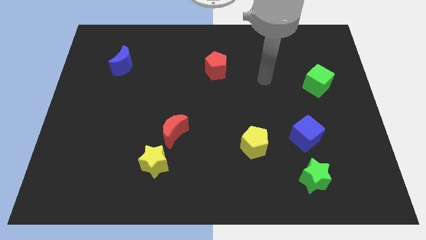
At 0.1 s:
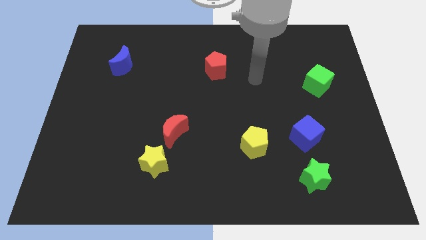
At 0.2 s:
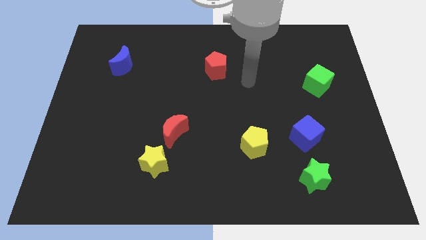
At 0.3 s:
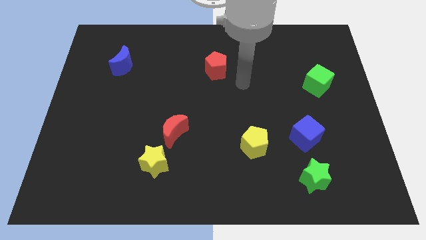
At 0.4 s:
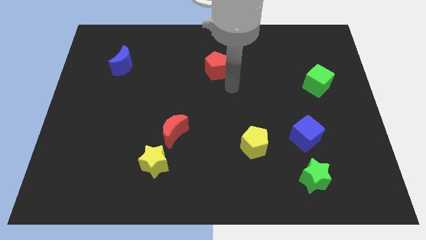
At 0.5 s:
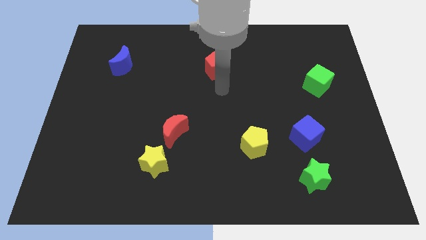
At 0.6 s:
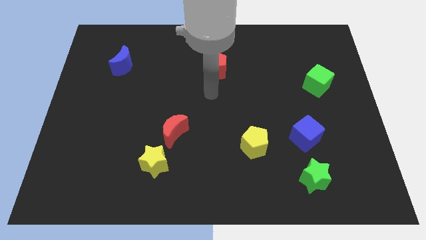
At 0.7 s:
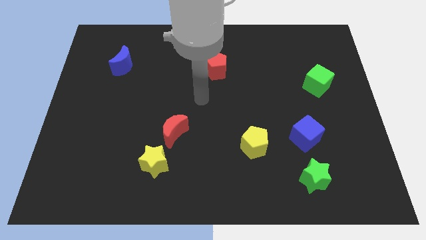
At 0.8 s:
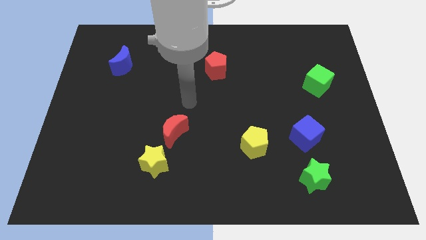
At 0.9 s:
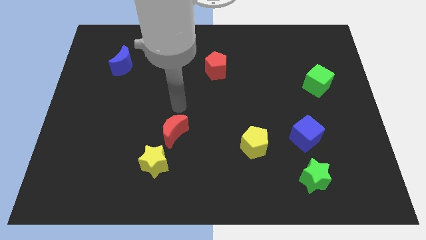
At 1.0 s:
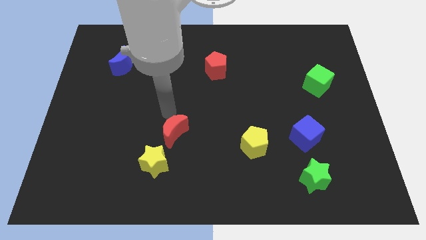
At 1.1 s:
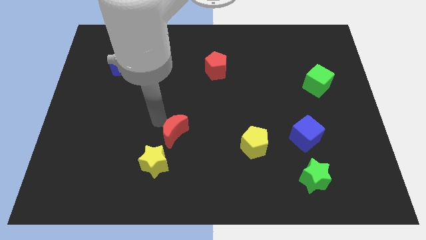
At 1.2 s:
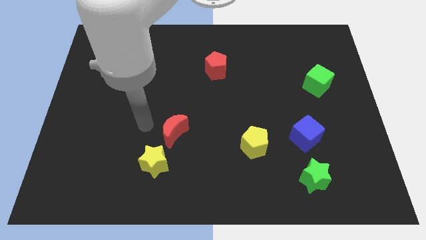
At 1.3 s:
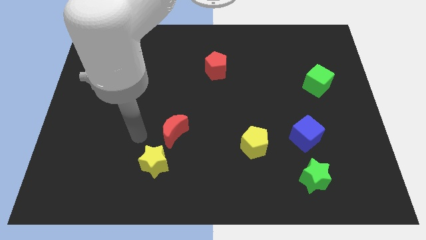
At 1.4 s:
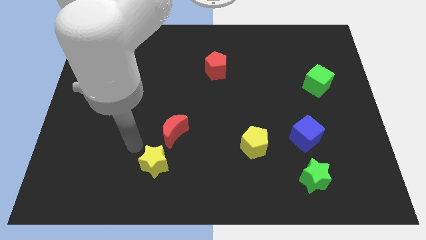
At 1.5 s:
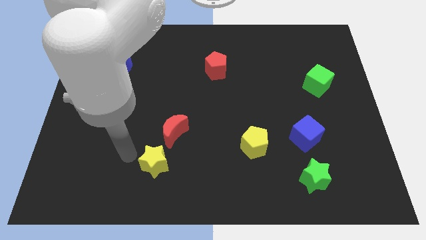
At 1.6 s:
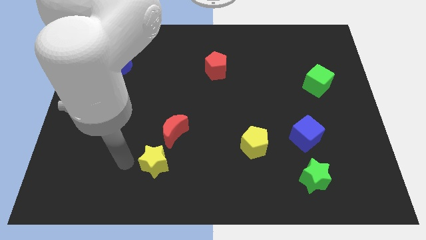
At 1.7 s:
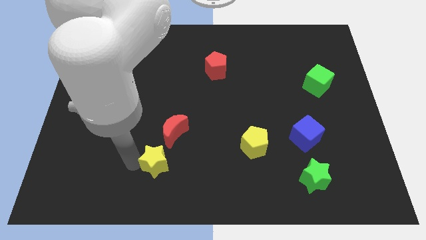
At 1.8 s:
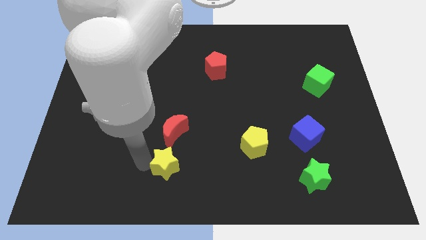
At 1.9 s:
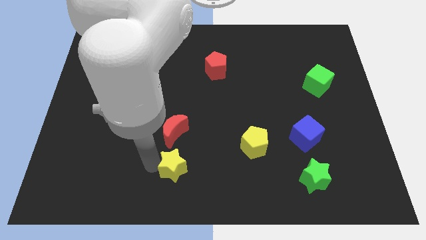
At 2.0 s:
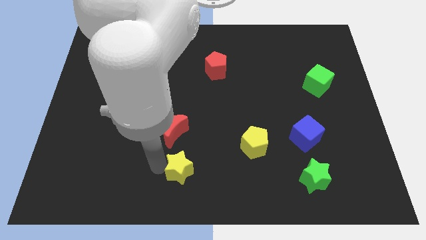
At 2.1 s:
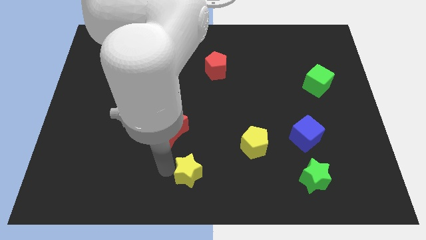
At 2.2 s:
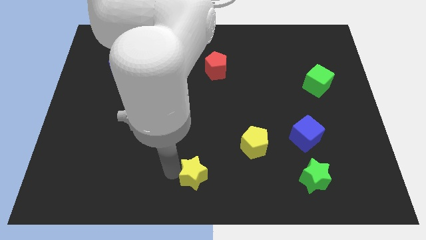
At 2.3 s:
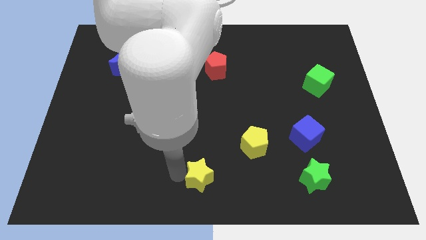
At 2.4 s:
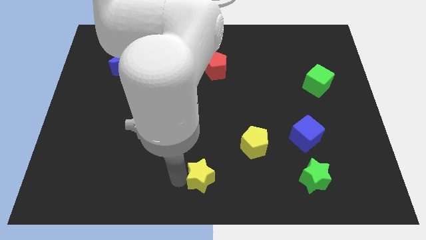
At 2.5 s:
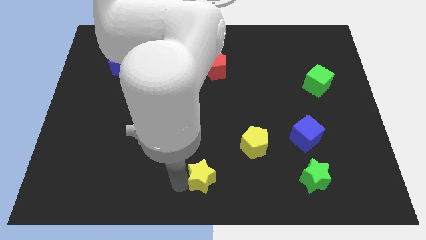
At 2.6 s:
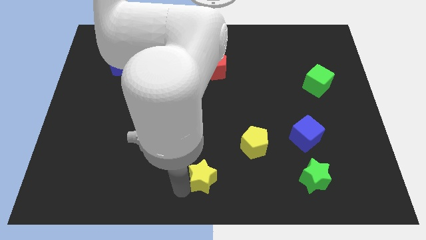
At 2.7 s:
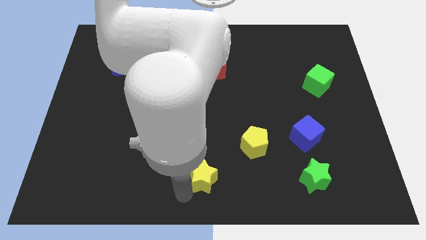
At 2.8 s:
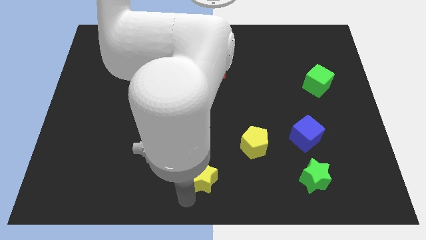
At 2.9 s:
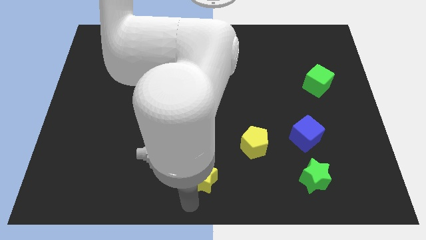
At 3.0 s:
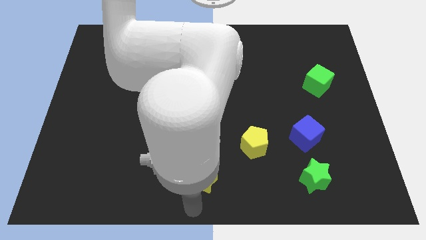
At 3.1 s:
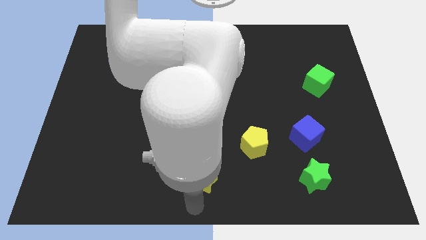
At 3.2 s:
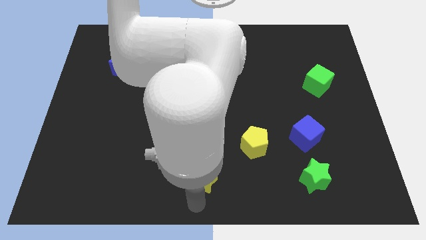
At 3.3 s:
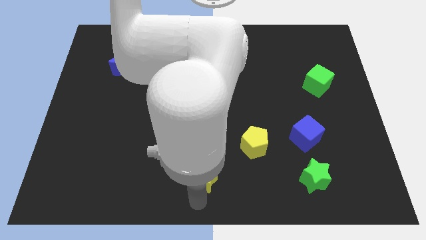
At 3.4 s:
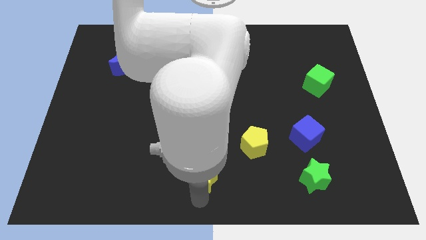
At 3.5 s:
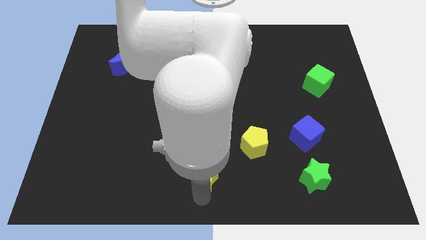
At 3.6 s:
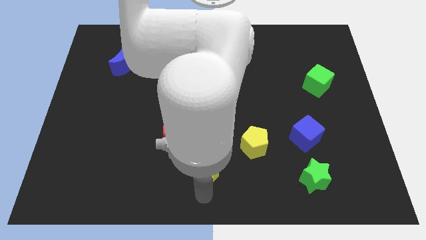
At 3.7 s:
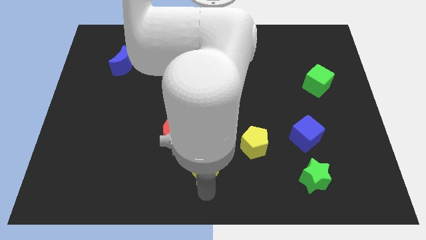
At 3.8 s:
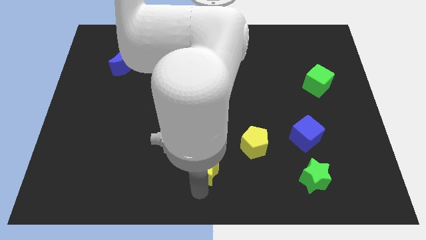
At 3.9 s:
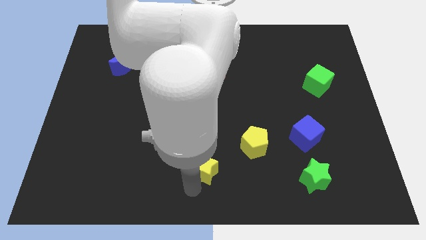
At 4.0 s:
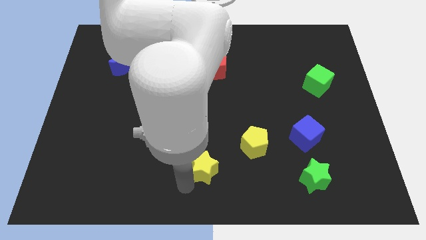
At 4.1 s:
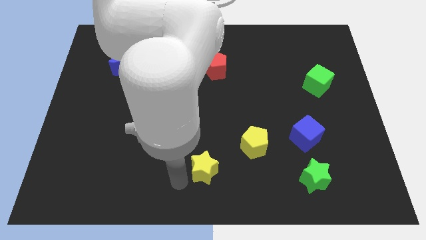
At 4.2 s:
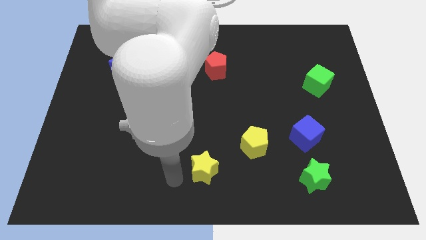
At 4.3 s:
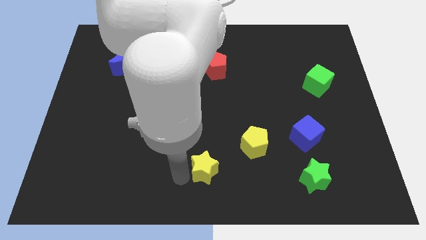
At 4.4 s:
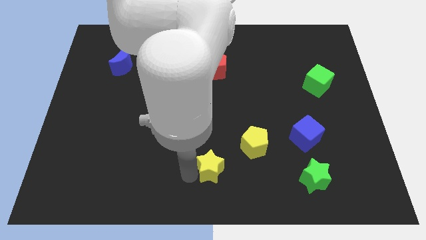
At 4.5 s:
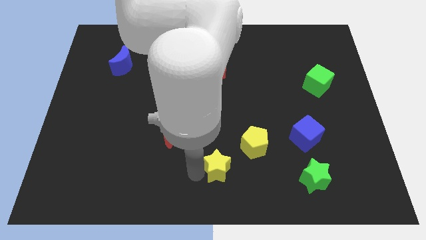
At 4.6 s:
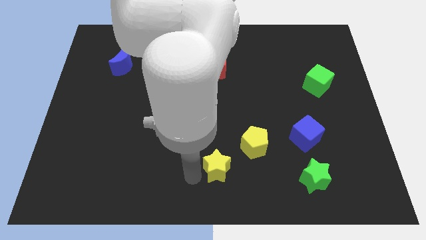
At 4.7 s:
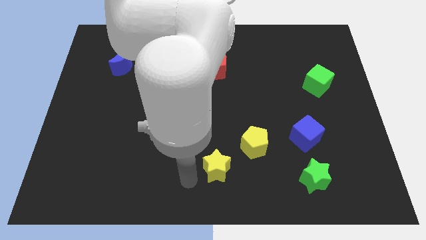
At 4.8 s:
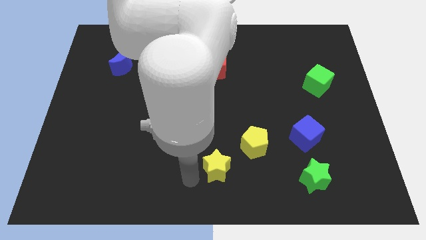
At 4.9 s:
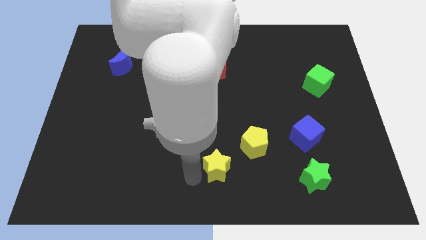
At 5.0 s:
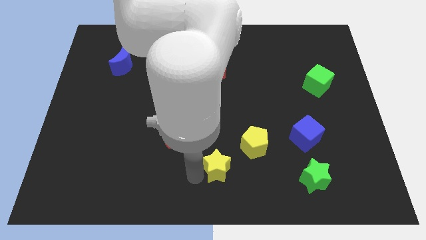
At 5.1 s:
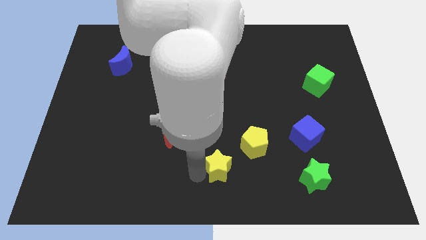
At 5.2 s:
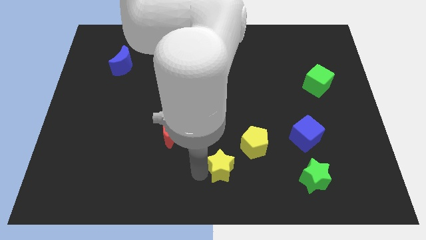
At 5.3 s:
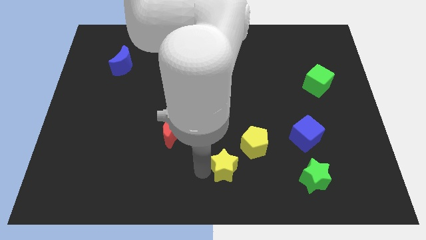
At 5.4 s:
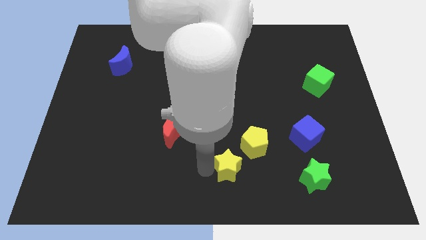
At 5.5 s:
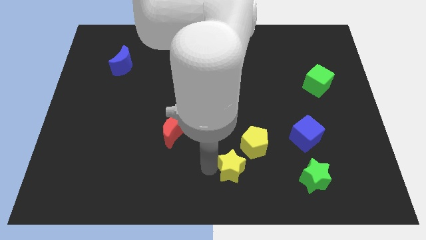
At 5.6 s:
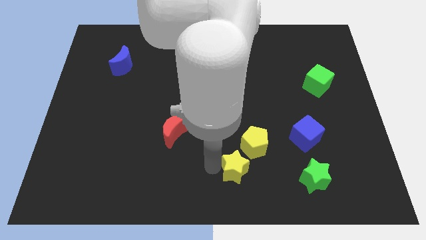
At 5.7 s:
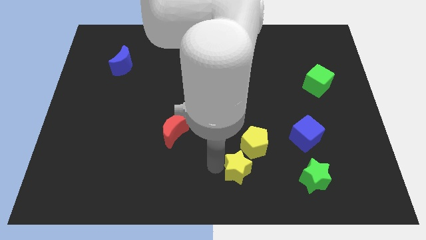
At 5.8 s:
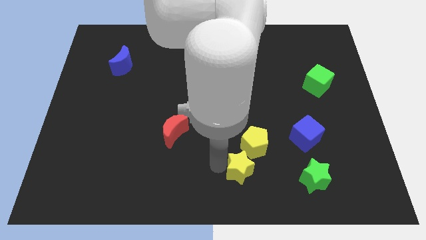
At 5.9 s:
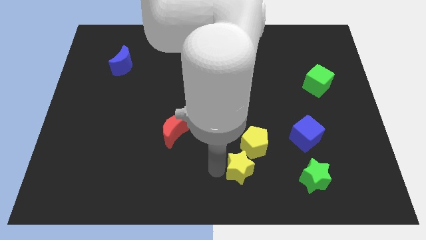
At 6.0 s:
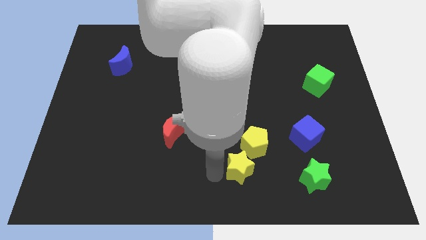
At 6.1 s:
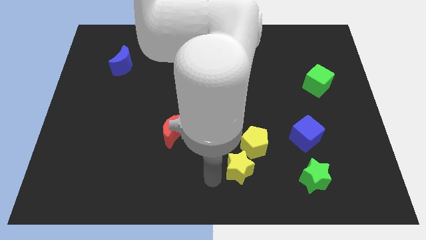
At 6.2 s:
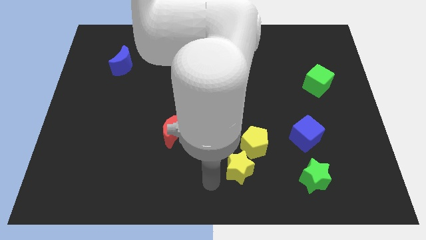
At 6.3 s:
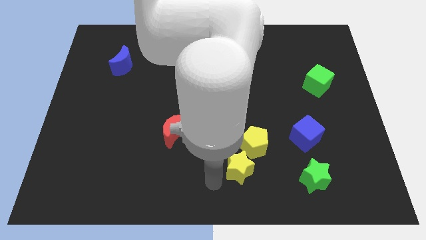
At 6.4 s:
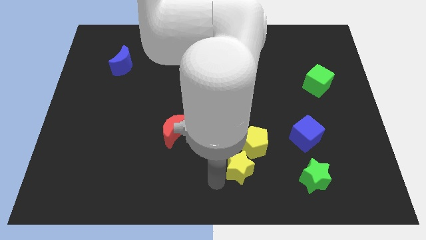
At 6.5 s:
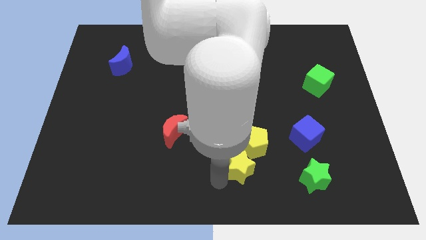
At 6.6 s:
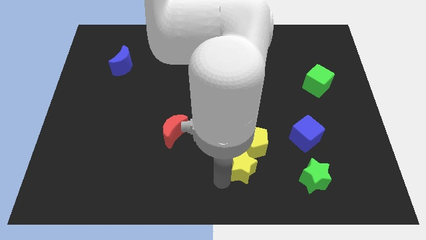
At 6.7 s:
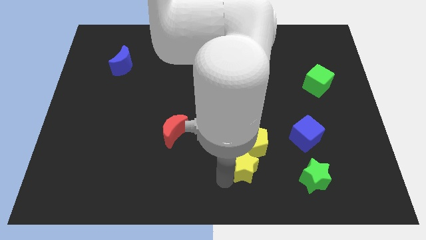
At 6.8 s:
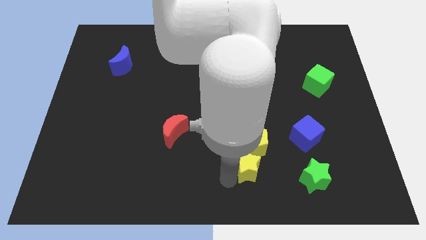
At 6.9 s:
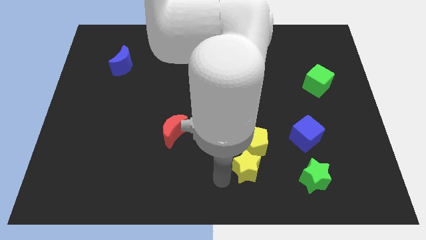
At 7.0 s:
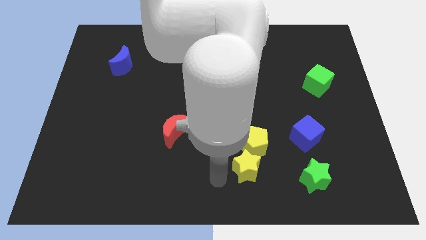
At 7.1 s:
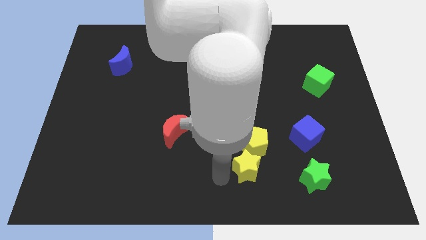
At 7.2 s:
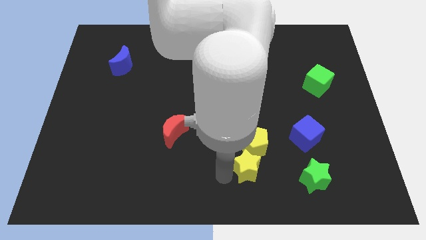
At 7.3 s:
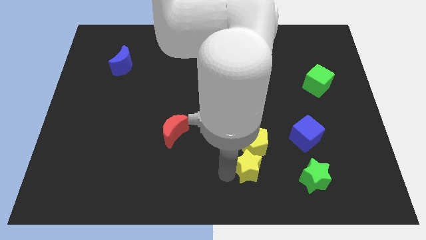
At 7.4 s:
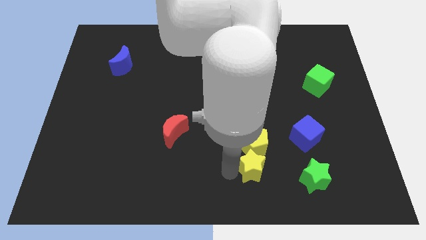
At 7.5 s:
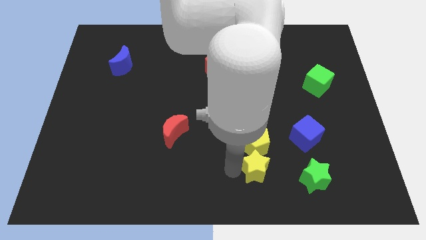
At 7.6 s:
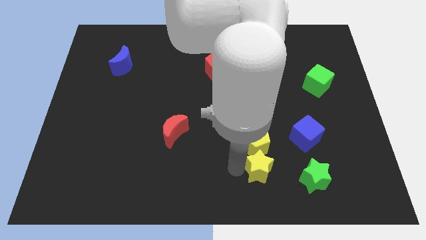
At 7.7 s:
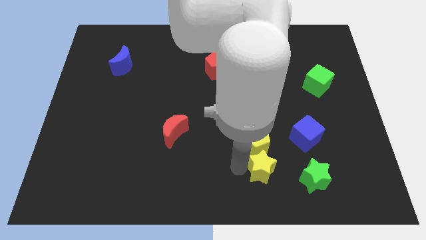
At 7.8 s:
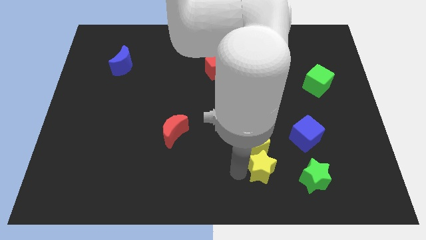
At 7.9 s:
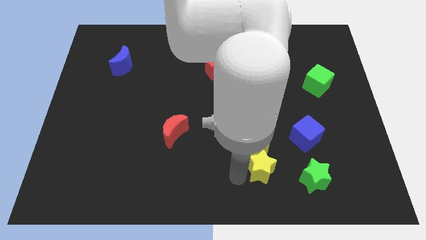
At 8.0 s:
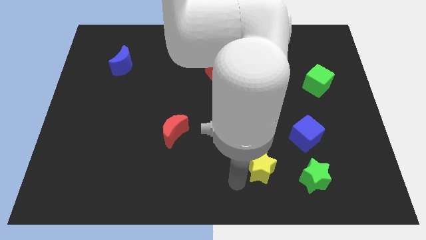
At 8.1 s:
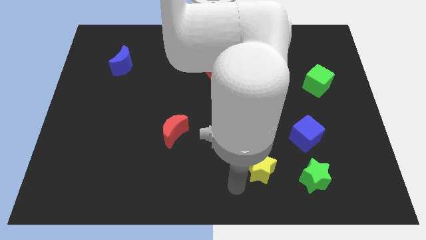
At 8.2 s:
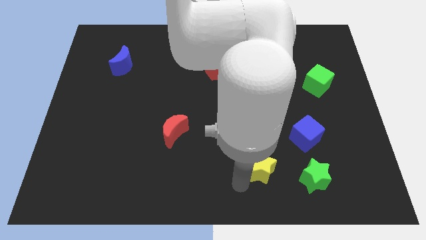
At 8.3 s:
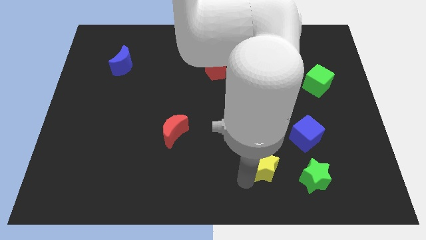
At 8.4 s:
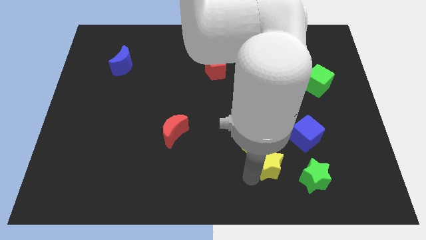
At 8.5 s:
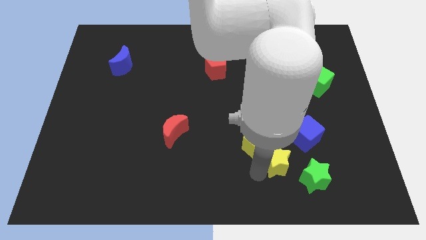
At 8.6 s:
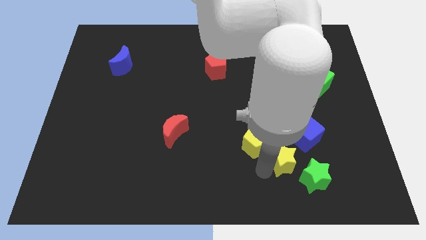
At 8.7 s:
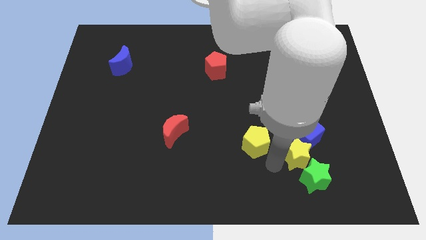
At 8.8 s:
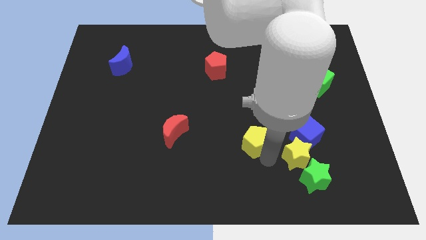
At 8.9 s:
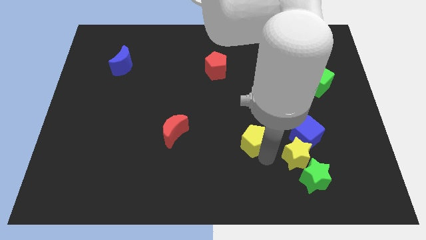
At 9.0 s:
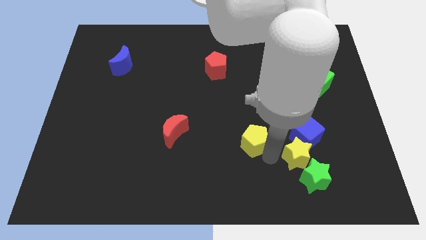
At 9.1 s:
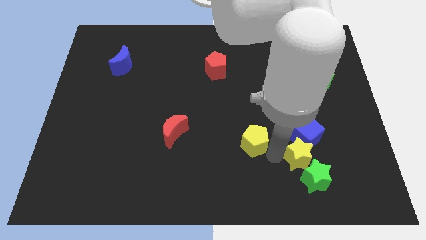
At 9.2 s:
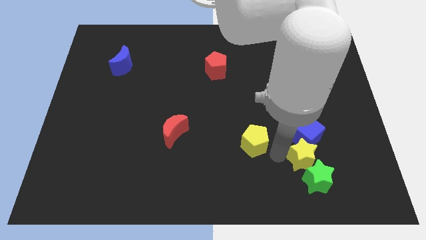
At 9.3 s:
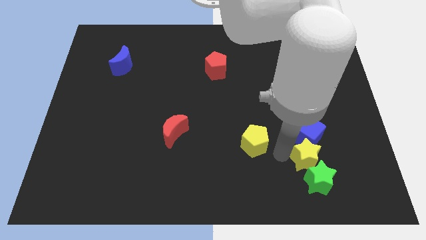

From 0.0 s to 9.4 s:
move the yellow star to the bottom right of the blue cube
